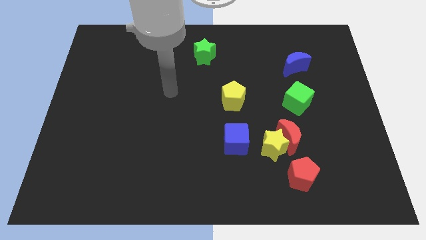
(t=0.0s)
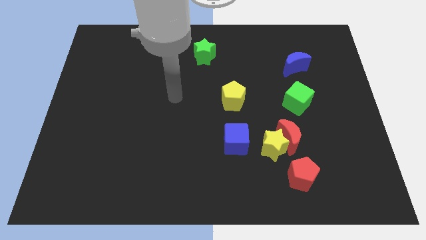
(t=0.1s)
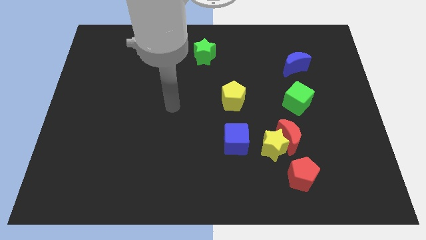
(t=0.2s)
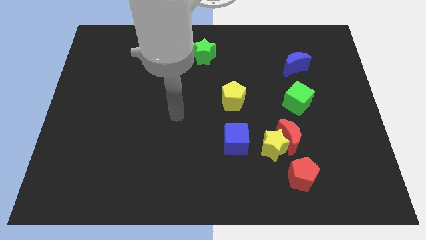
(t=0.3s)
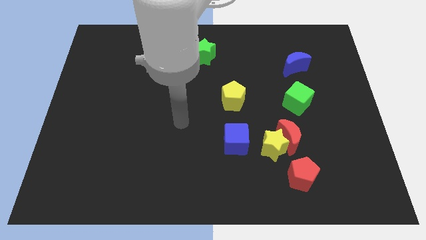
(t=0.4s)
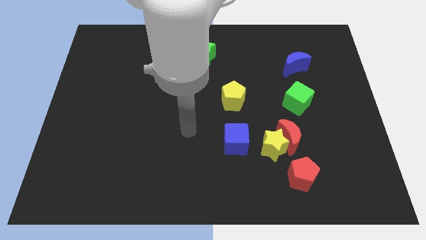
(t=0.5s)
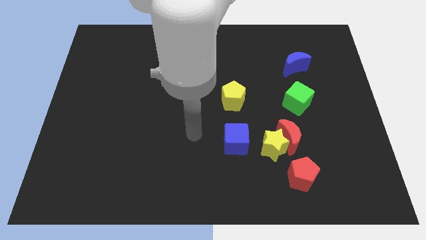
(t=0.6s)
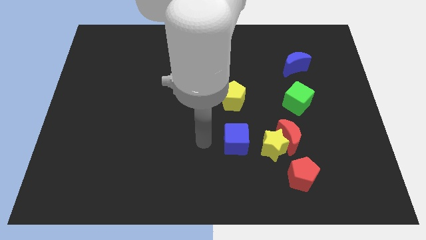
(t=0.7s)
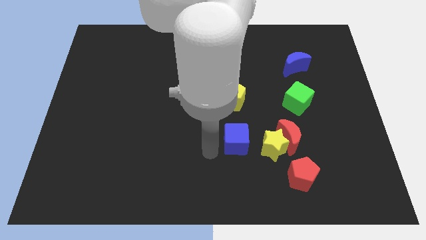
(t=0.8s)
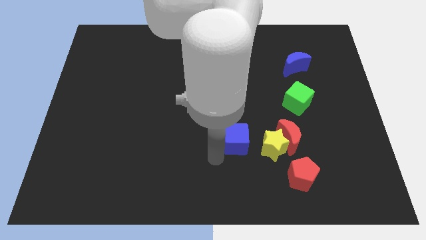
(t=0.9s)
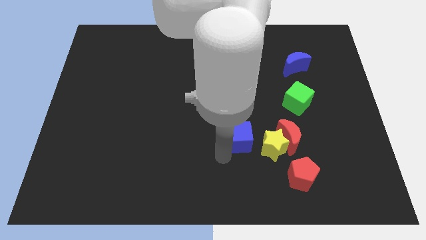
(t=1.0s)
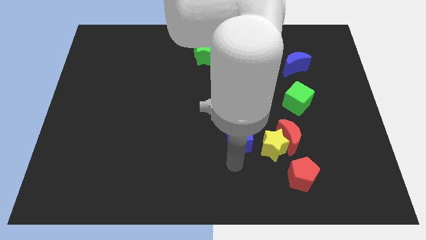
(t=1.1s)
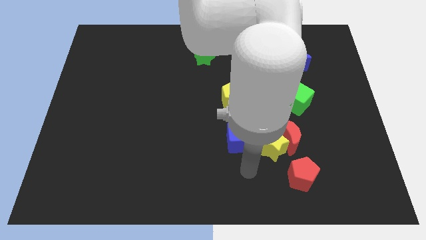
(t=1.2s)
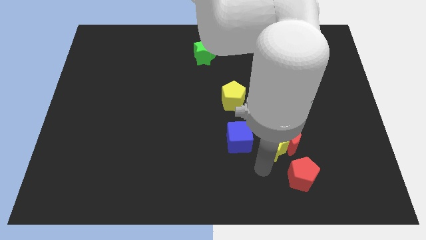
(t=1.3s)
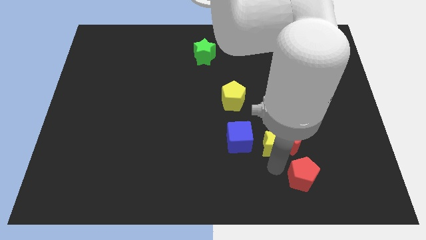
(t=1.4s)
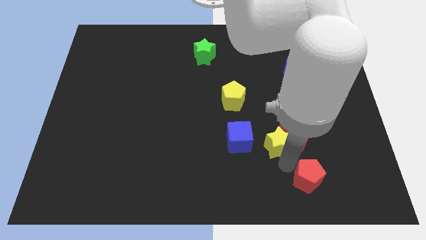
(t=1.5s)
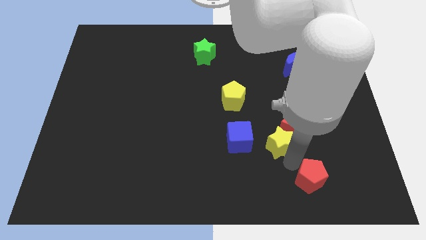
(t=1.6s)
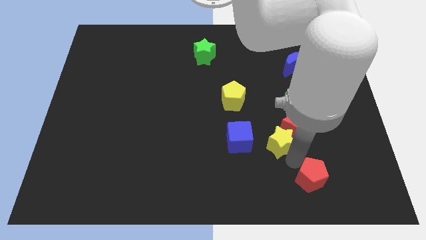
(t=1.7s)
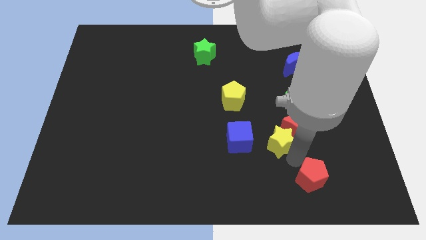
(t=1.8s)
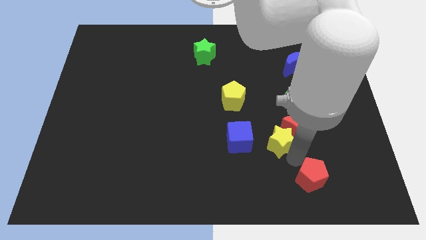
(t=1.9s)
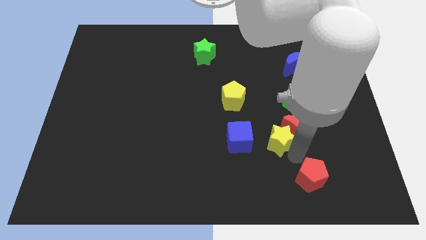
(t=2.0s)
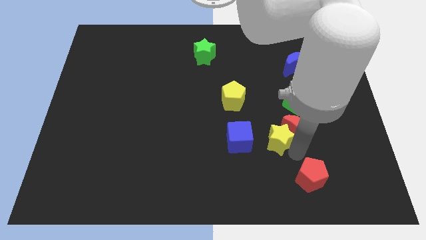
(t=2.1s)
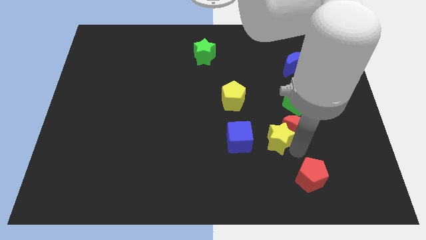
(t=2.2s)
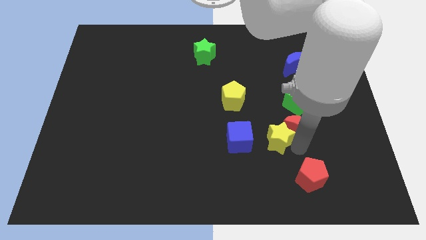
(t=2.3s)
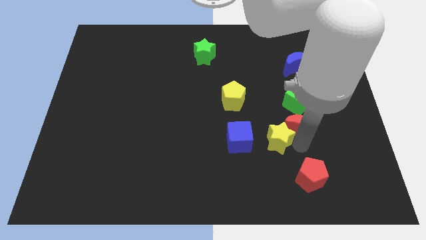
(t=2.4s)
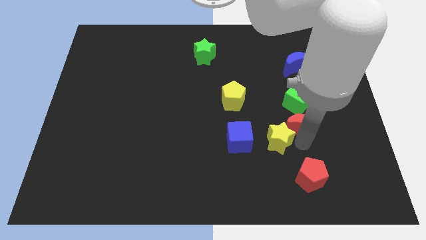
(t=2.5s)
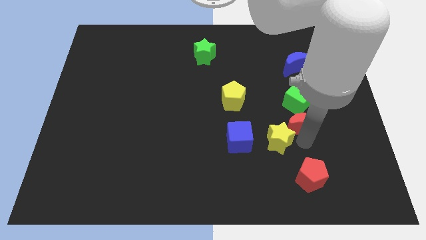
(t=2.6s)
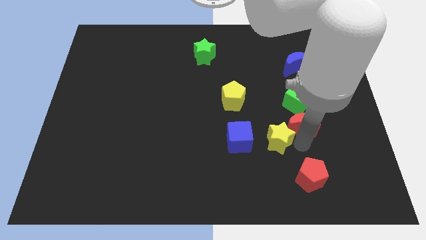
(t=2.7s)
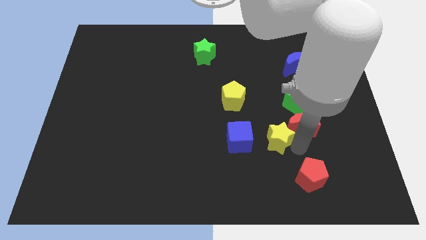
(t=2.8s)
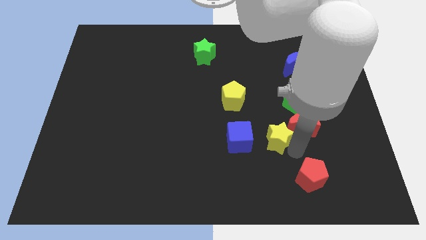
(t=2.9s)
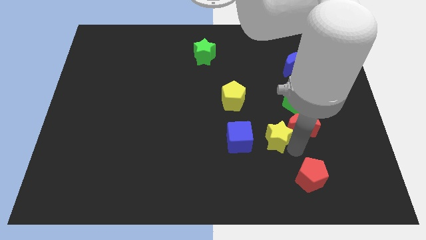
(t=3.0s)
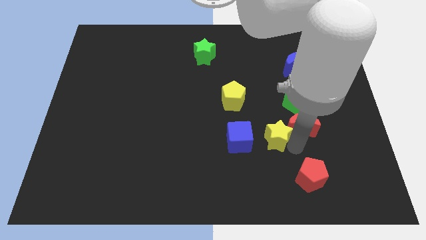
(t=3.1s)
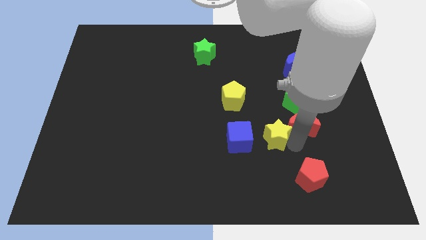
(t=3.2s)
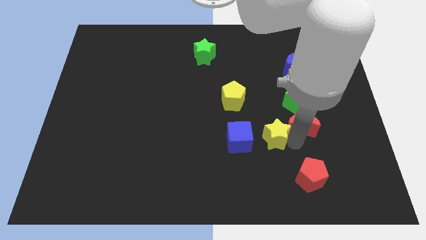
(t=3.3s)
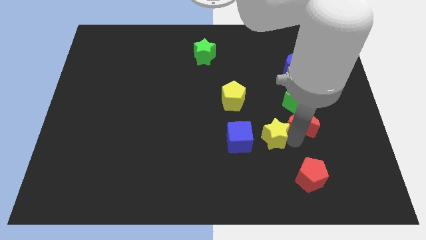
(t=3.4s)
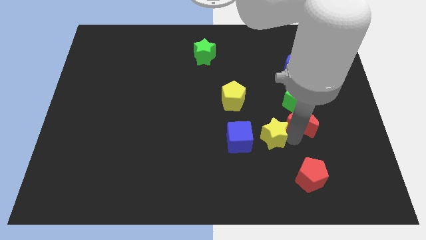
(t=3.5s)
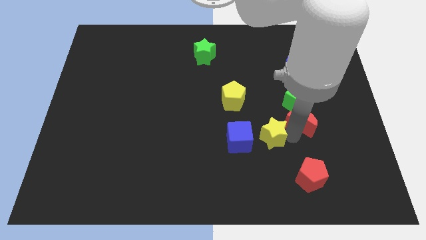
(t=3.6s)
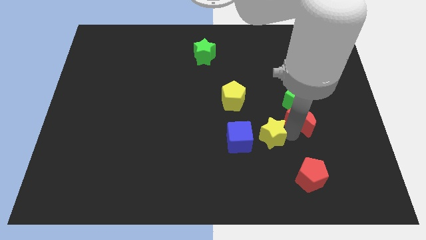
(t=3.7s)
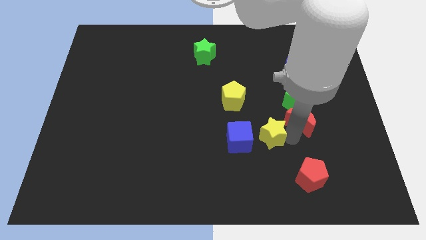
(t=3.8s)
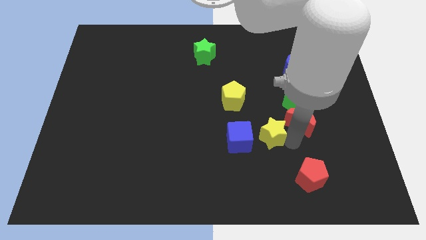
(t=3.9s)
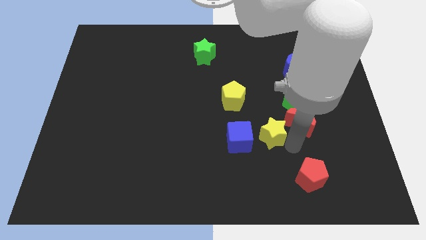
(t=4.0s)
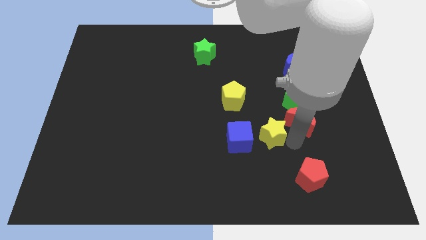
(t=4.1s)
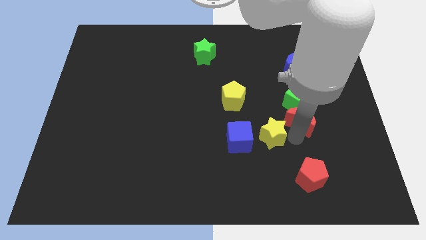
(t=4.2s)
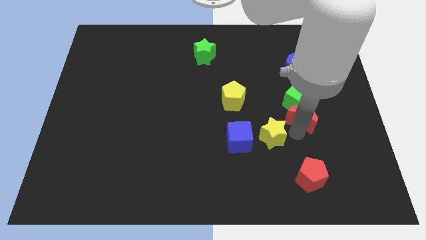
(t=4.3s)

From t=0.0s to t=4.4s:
pull the red moon apart from the yellow star and red pentagon

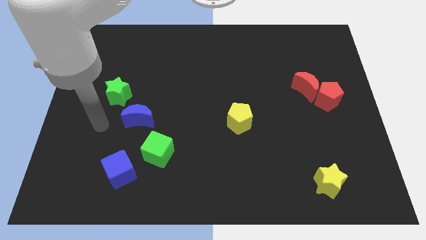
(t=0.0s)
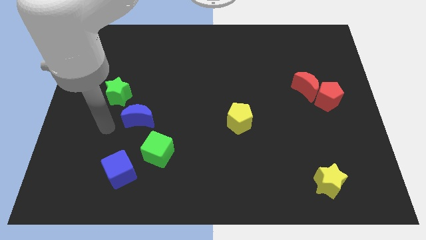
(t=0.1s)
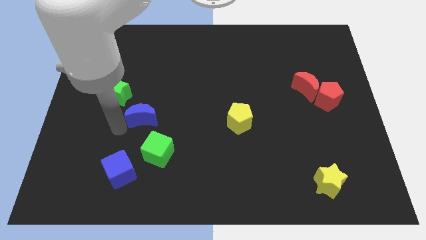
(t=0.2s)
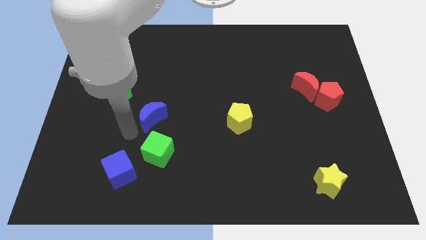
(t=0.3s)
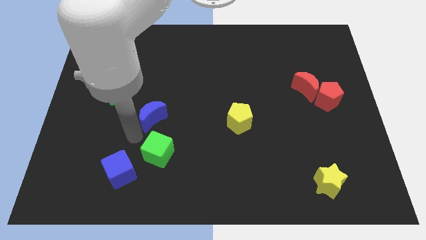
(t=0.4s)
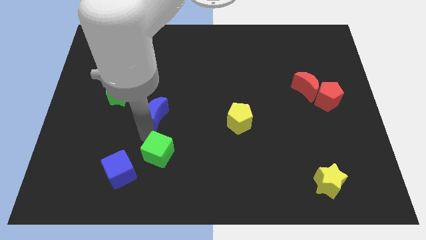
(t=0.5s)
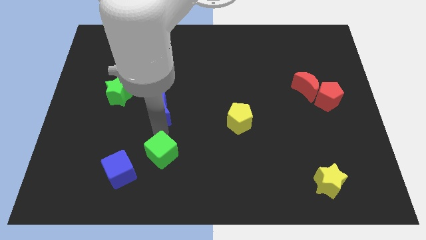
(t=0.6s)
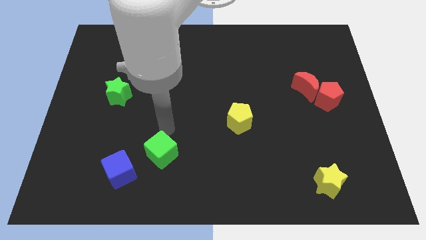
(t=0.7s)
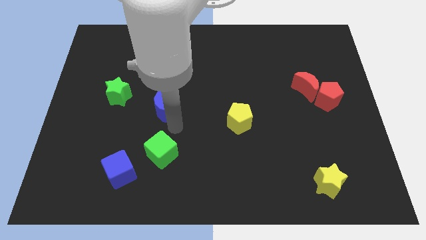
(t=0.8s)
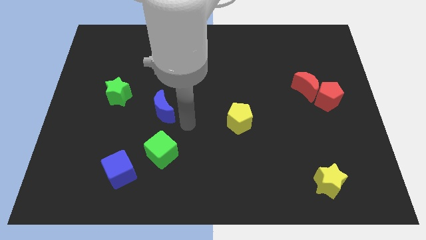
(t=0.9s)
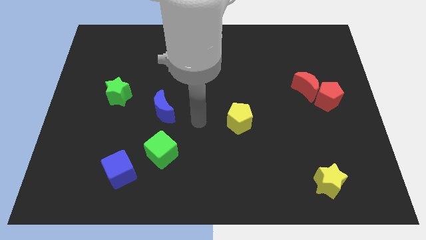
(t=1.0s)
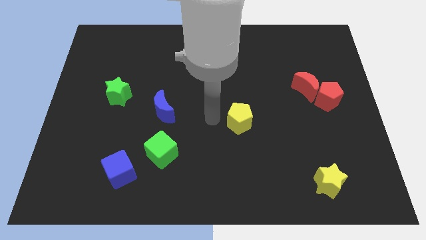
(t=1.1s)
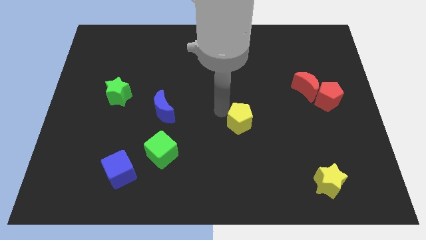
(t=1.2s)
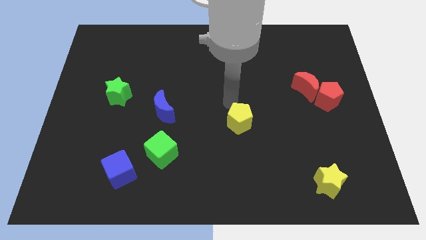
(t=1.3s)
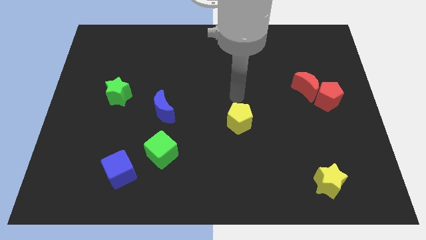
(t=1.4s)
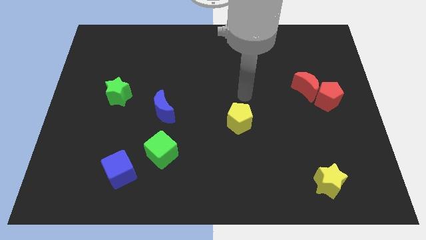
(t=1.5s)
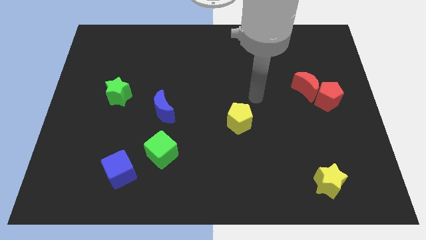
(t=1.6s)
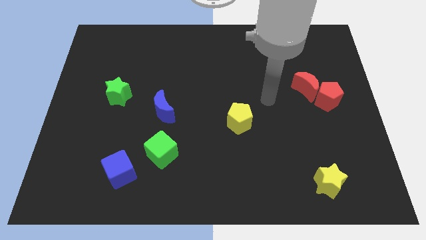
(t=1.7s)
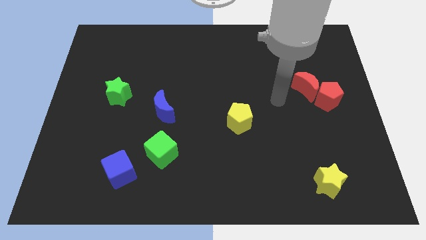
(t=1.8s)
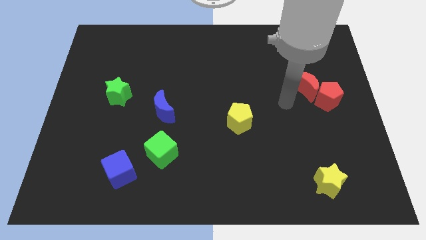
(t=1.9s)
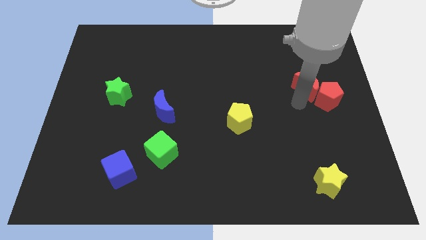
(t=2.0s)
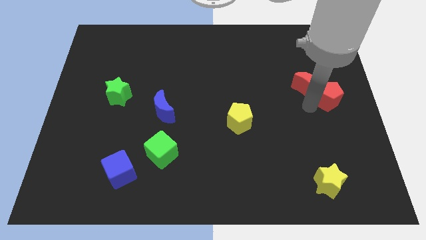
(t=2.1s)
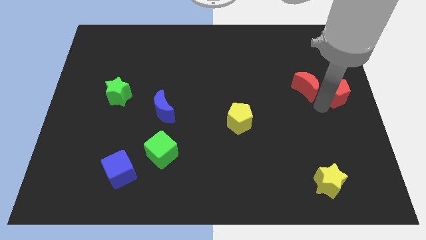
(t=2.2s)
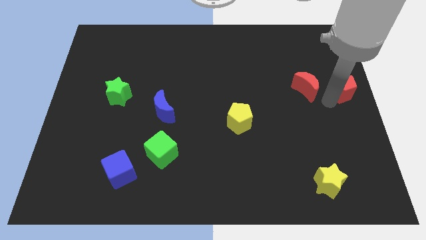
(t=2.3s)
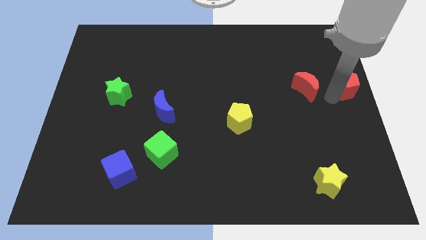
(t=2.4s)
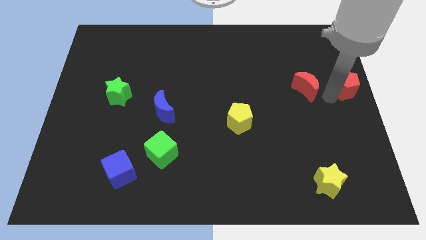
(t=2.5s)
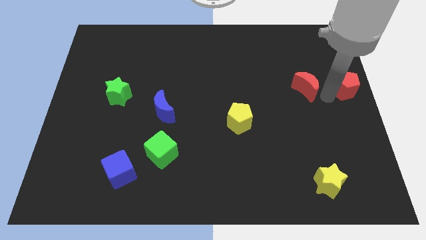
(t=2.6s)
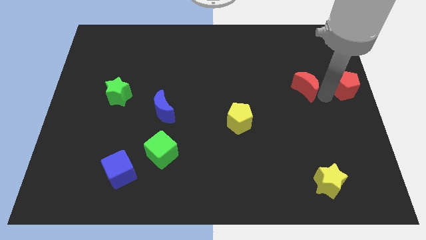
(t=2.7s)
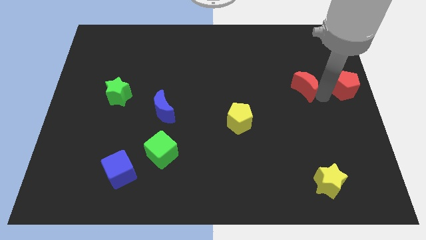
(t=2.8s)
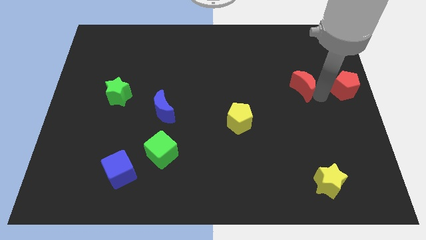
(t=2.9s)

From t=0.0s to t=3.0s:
pull the red moon apart from the red pentagon

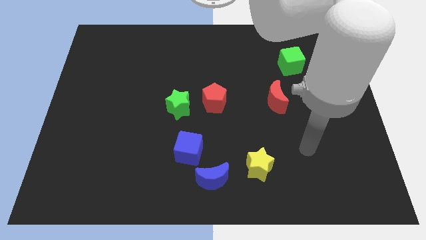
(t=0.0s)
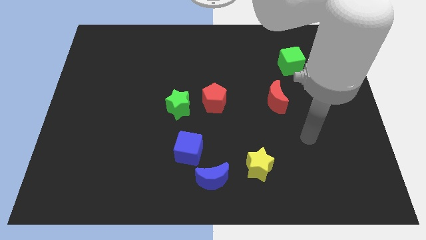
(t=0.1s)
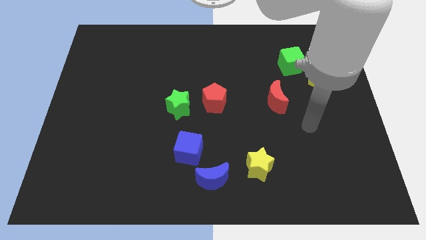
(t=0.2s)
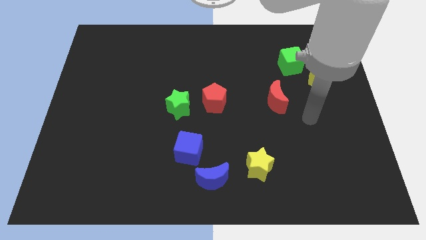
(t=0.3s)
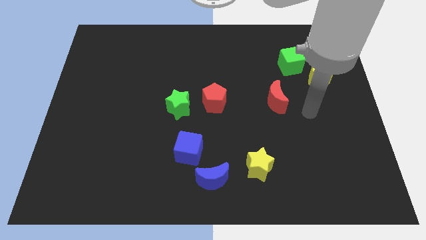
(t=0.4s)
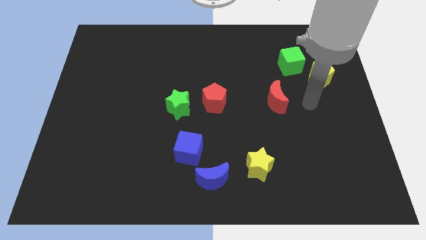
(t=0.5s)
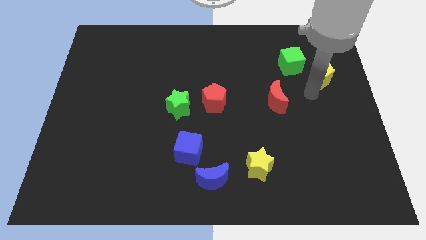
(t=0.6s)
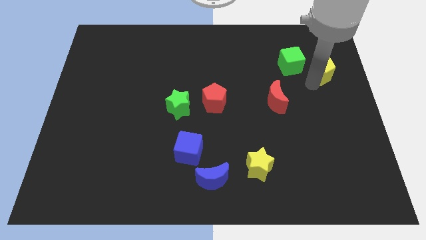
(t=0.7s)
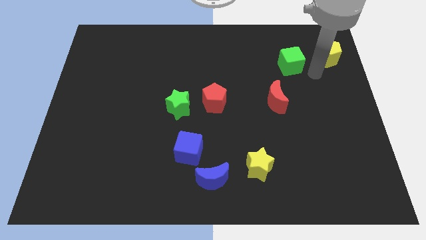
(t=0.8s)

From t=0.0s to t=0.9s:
pull the green cube apart from the yellow pentagon

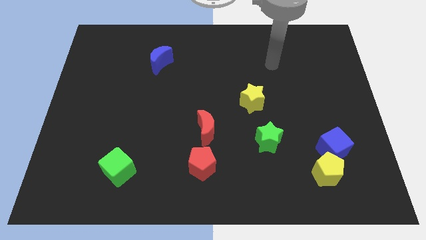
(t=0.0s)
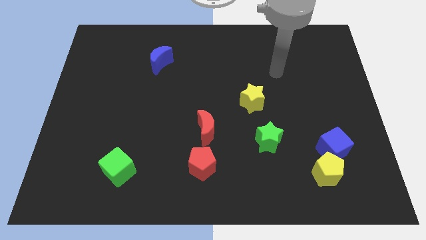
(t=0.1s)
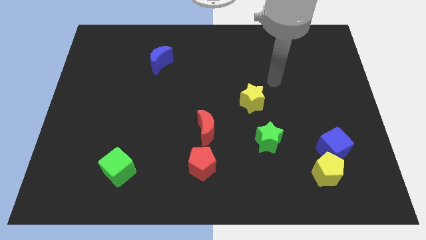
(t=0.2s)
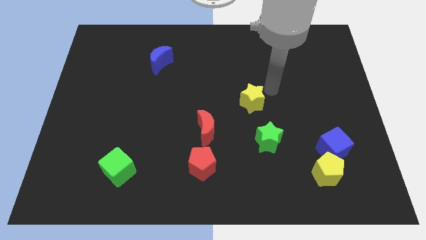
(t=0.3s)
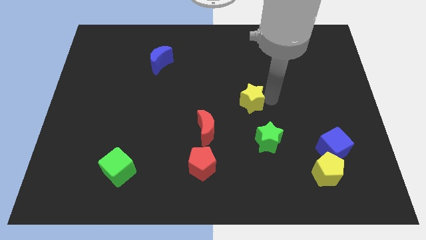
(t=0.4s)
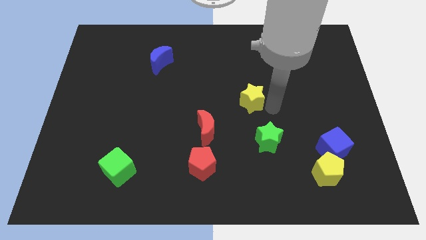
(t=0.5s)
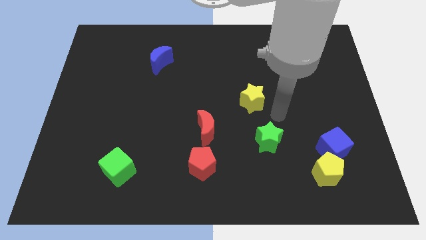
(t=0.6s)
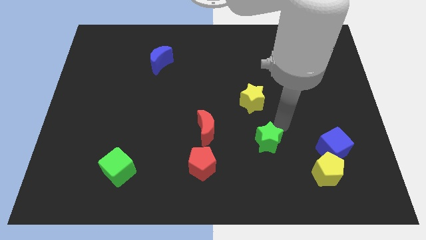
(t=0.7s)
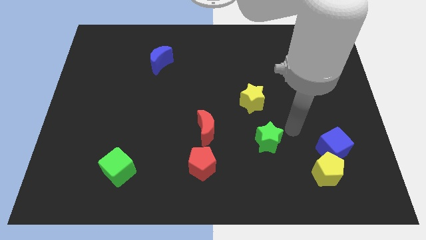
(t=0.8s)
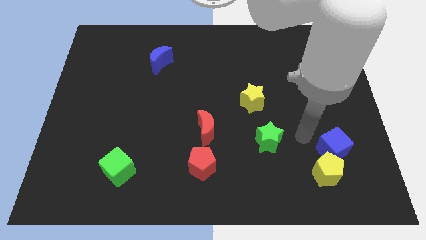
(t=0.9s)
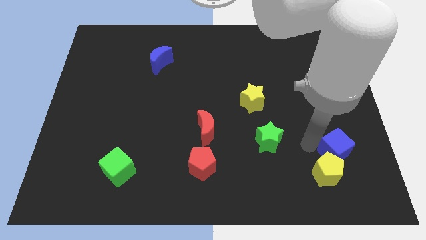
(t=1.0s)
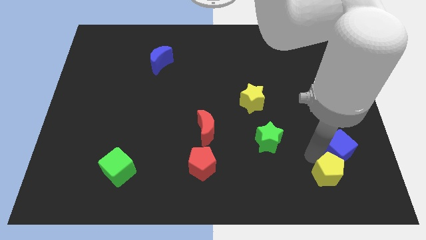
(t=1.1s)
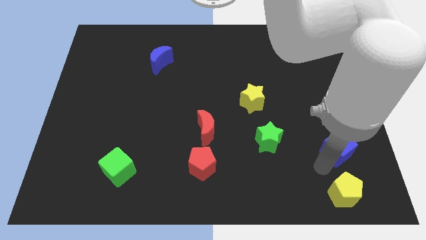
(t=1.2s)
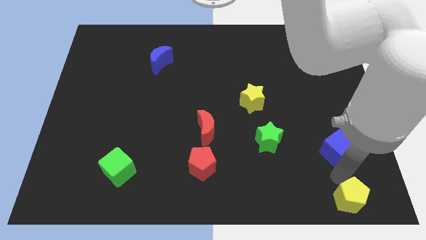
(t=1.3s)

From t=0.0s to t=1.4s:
move the blue cube away from the yellow pentagon
